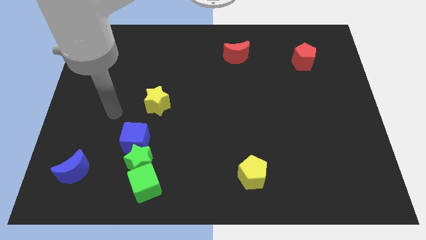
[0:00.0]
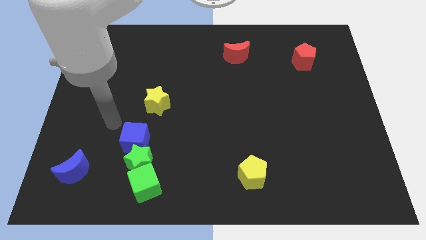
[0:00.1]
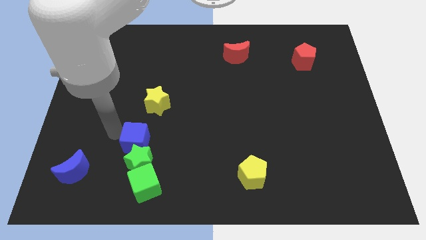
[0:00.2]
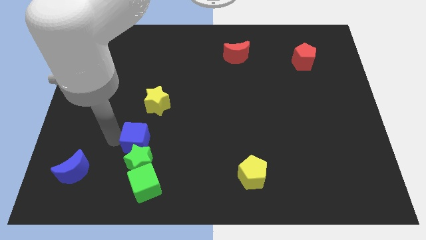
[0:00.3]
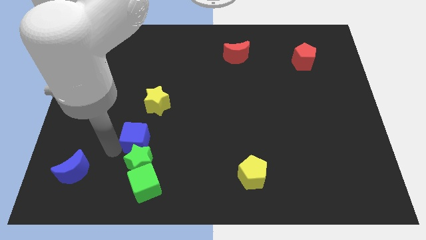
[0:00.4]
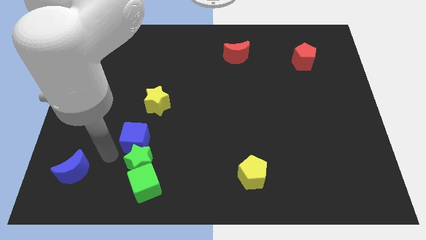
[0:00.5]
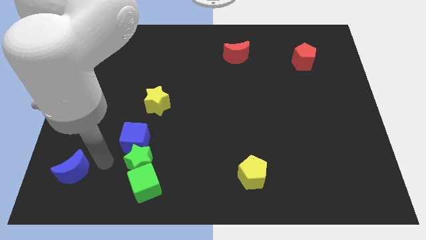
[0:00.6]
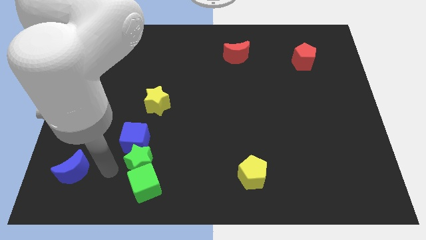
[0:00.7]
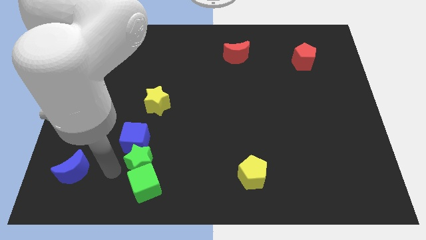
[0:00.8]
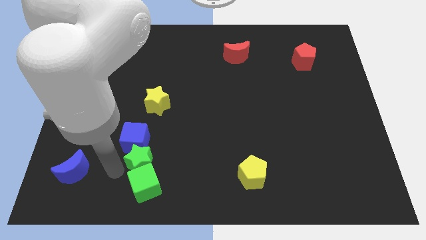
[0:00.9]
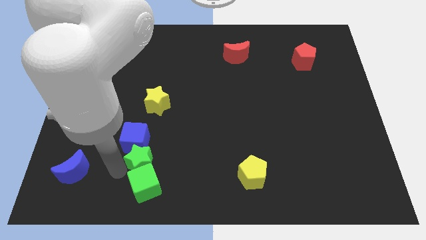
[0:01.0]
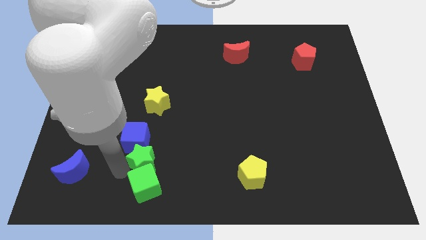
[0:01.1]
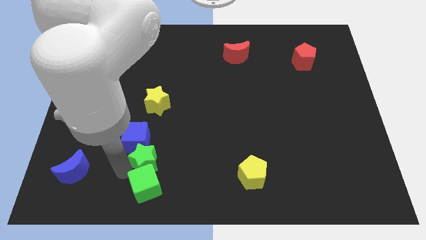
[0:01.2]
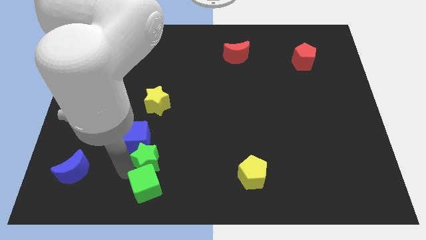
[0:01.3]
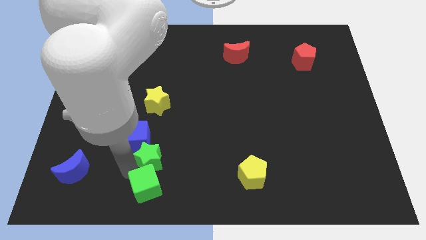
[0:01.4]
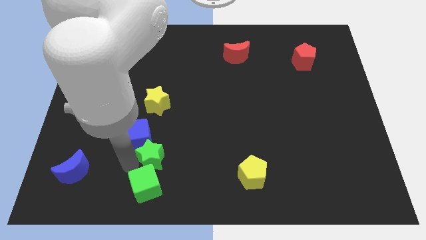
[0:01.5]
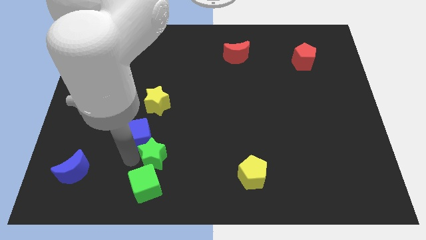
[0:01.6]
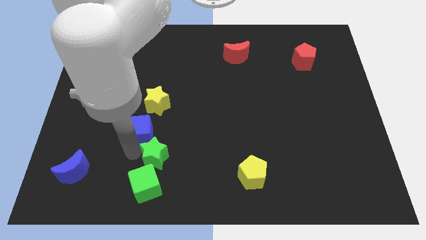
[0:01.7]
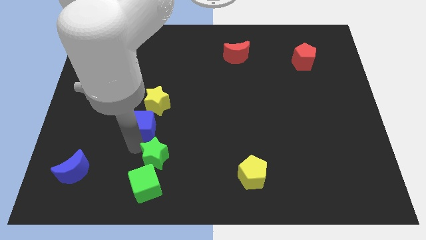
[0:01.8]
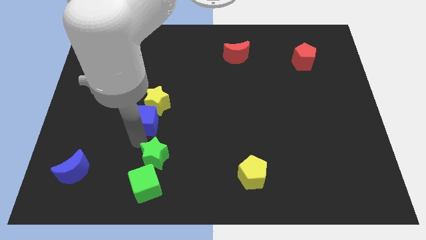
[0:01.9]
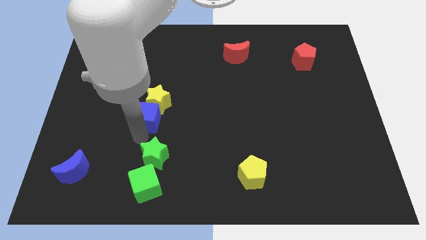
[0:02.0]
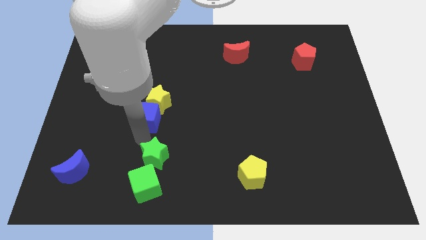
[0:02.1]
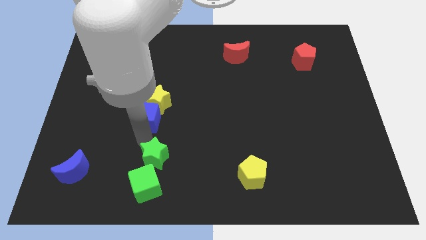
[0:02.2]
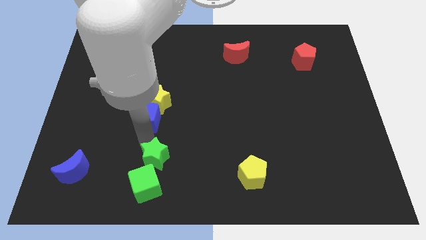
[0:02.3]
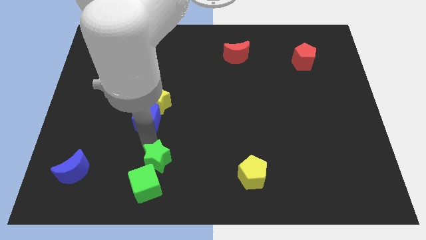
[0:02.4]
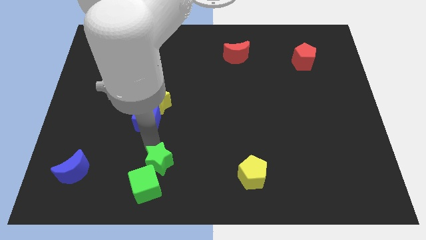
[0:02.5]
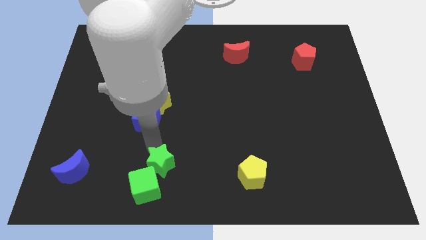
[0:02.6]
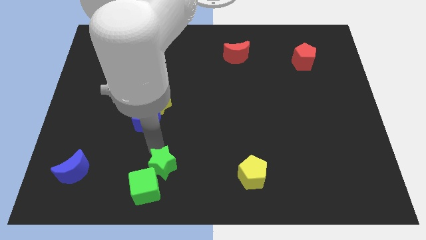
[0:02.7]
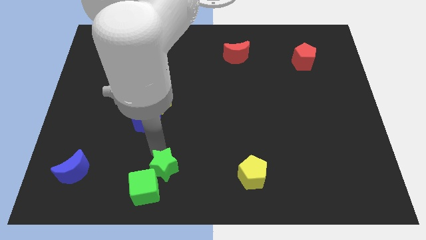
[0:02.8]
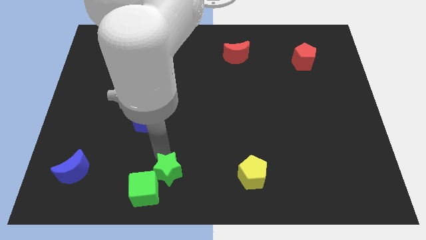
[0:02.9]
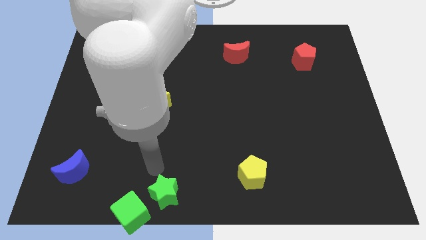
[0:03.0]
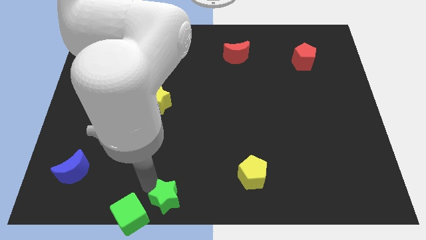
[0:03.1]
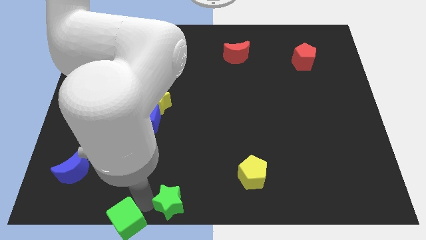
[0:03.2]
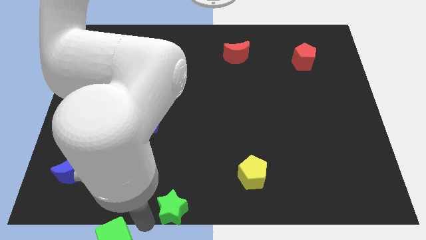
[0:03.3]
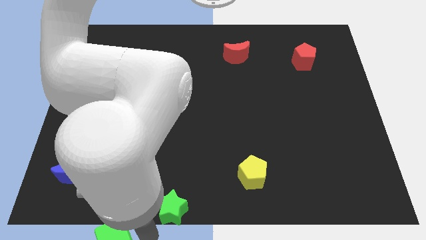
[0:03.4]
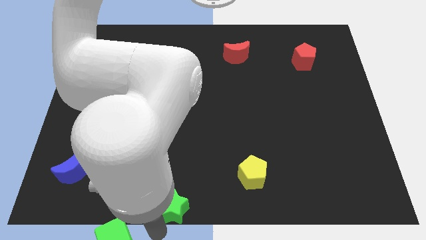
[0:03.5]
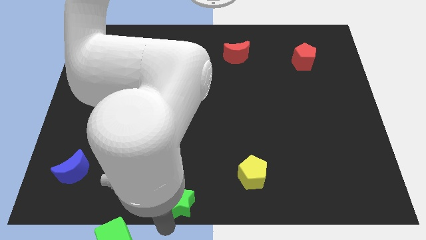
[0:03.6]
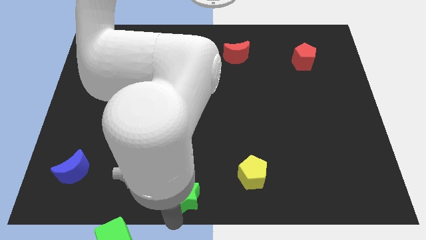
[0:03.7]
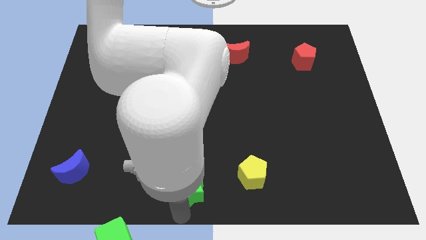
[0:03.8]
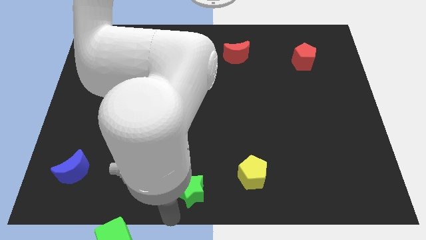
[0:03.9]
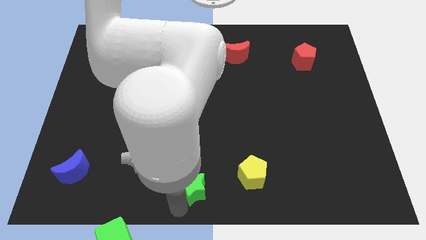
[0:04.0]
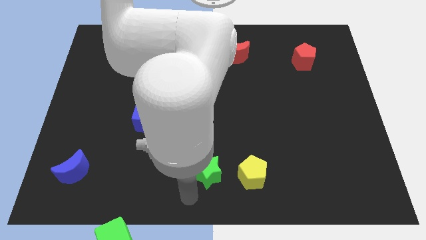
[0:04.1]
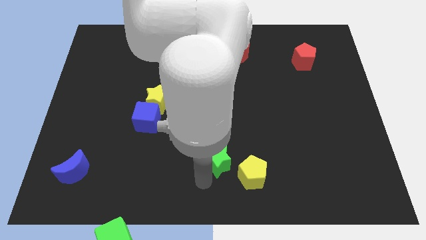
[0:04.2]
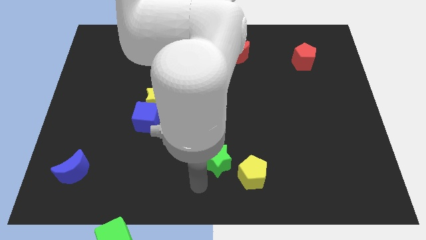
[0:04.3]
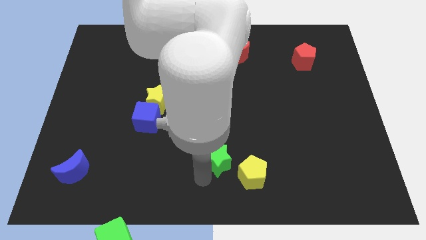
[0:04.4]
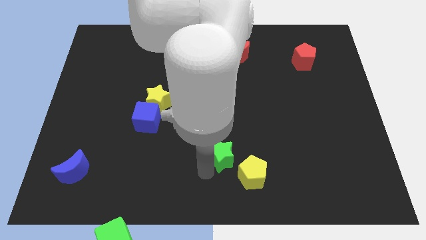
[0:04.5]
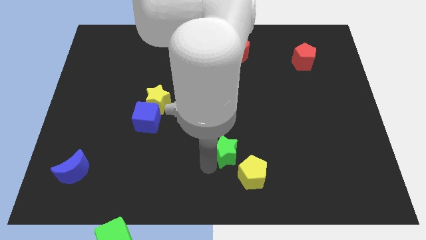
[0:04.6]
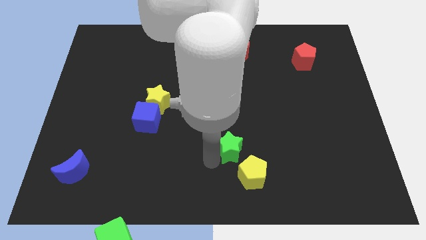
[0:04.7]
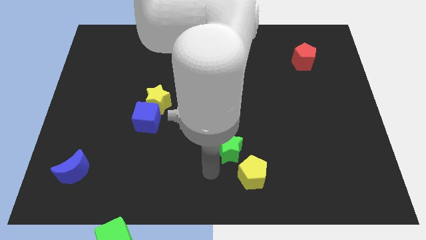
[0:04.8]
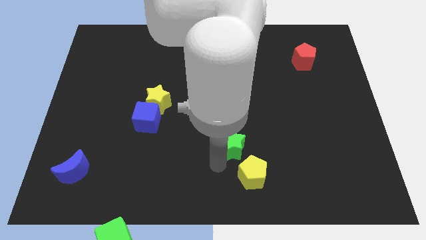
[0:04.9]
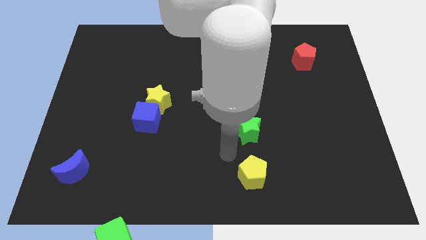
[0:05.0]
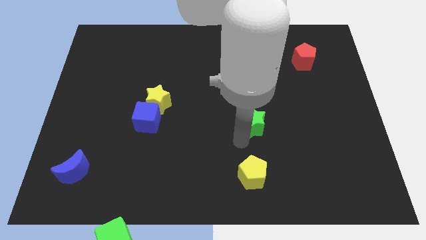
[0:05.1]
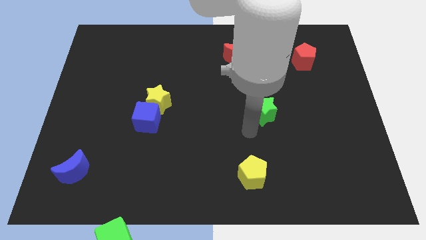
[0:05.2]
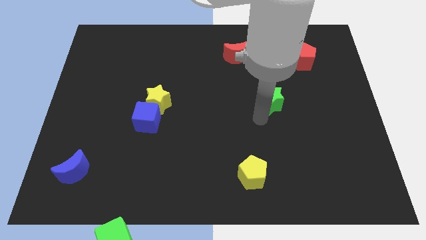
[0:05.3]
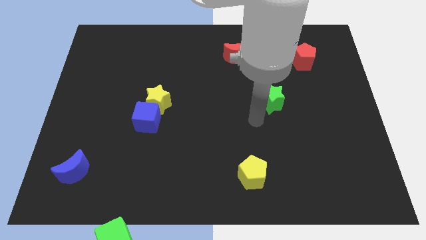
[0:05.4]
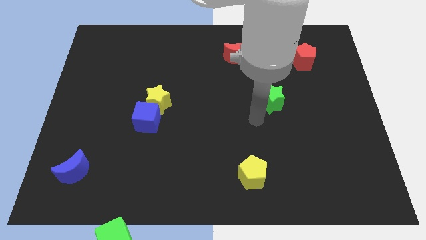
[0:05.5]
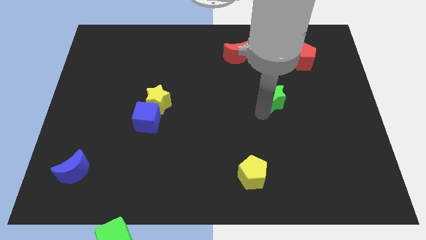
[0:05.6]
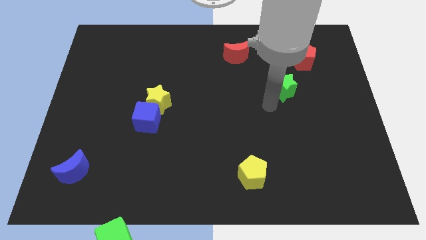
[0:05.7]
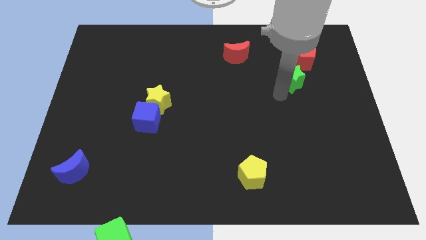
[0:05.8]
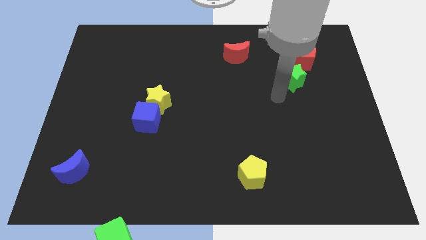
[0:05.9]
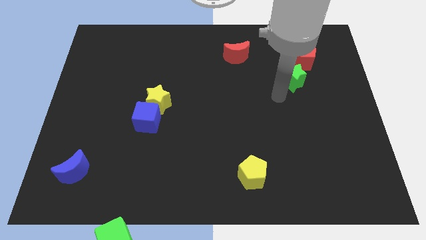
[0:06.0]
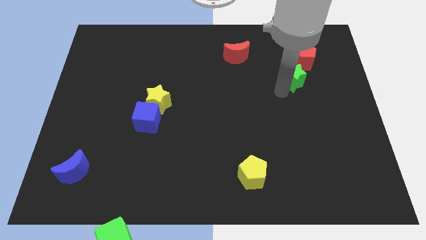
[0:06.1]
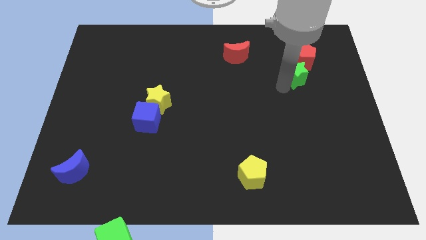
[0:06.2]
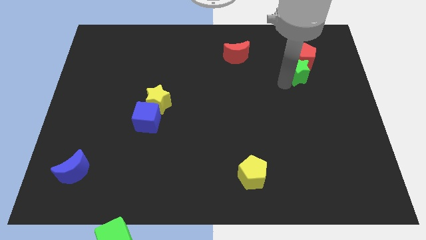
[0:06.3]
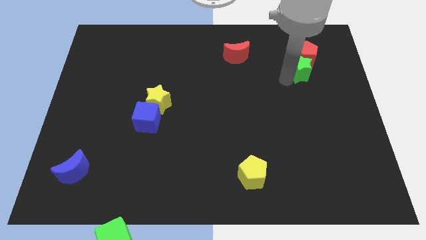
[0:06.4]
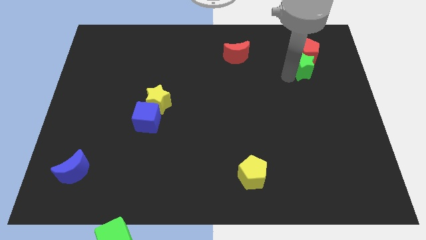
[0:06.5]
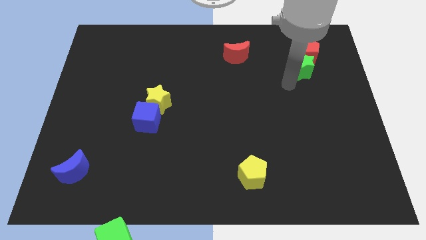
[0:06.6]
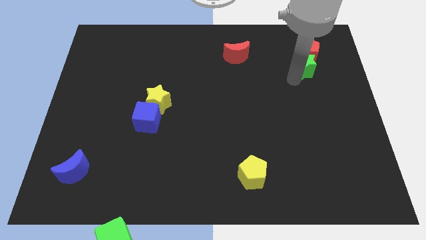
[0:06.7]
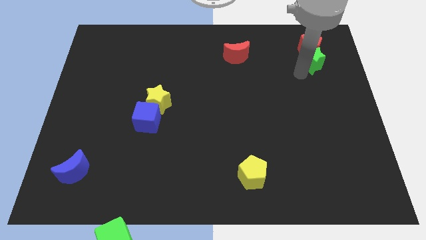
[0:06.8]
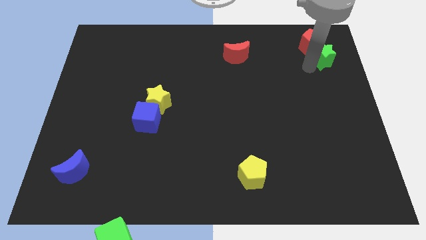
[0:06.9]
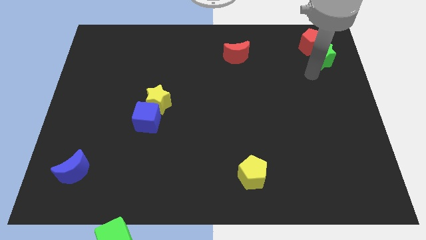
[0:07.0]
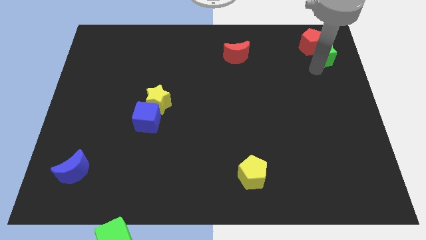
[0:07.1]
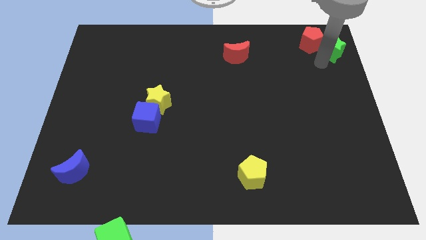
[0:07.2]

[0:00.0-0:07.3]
slide the green star to the top right of the board
